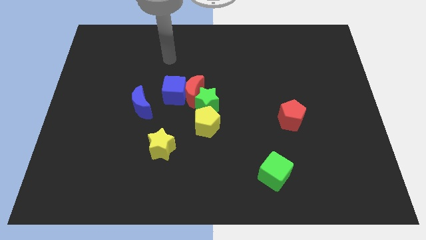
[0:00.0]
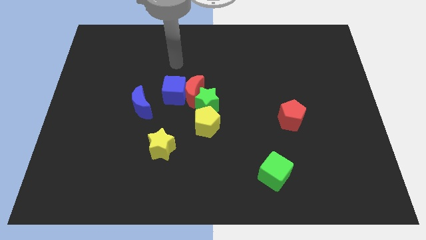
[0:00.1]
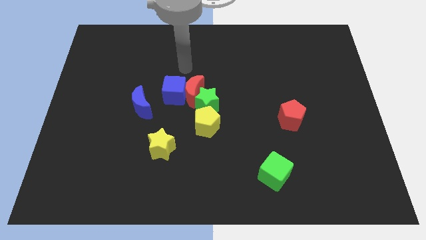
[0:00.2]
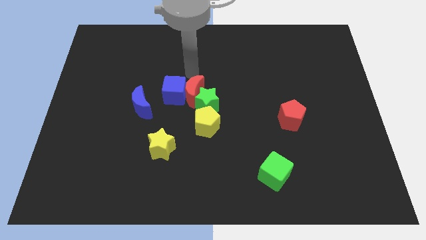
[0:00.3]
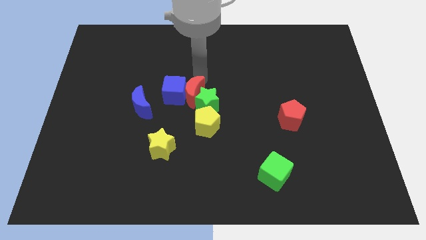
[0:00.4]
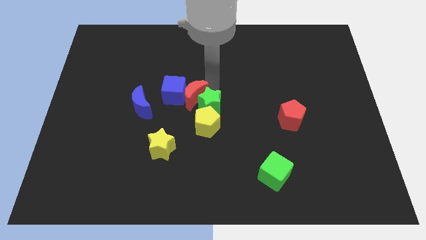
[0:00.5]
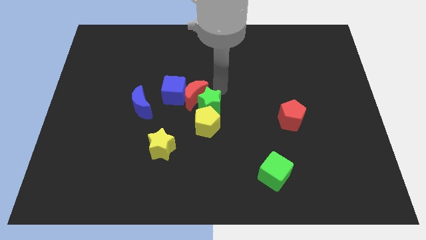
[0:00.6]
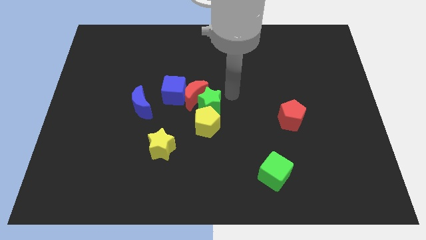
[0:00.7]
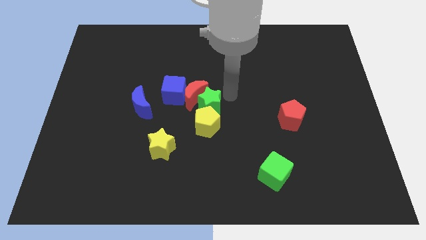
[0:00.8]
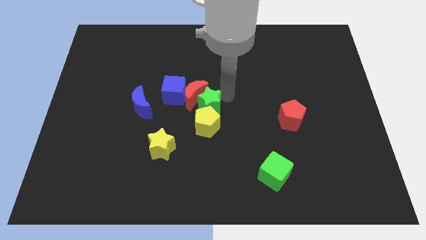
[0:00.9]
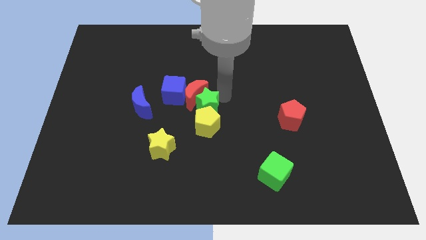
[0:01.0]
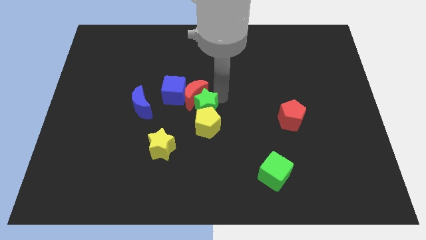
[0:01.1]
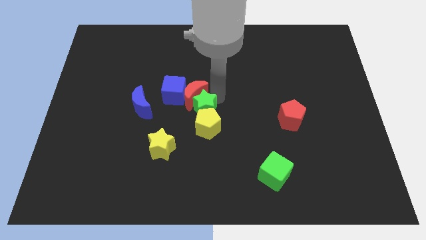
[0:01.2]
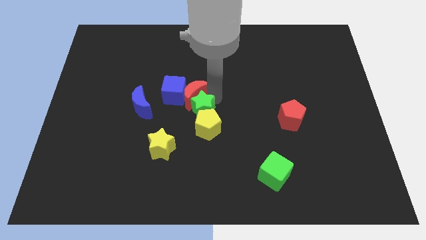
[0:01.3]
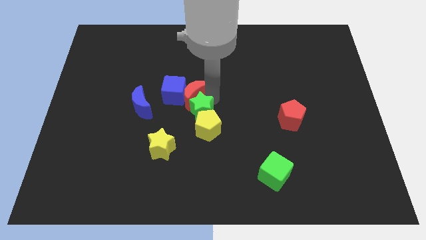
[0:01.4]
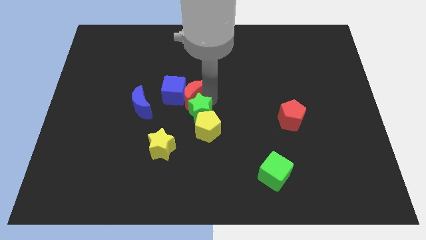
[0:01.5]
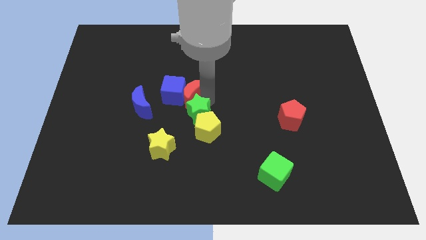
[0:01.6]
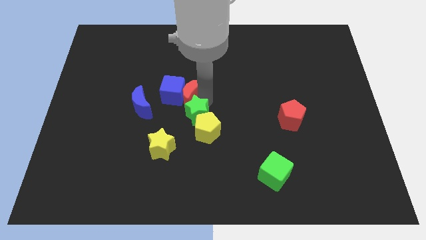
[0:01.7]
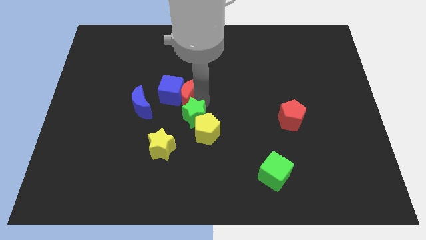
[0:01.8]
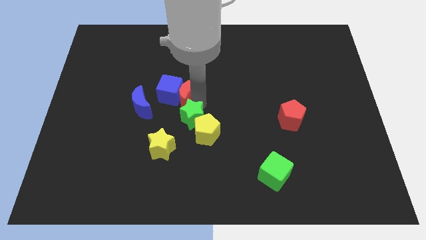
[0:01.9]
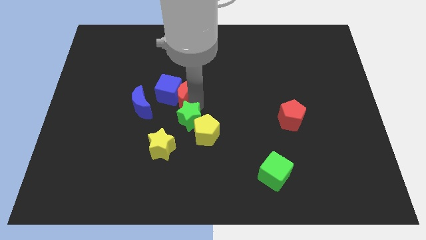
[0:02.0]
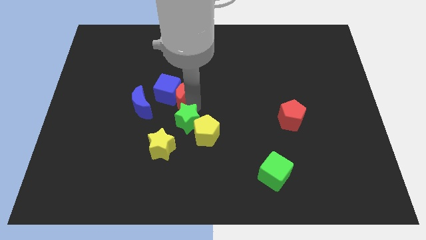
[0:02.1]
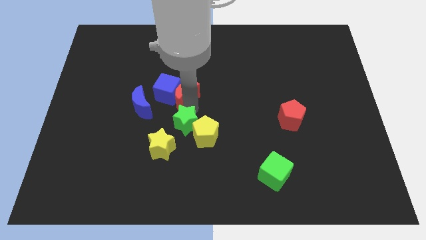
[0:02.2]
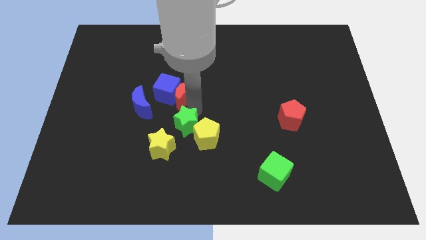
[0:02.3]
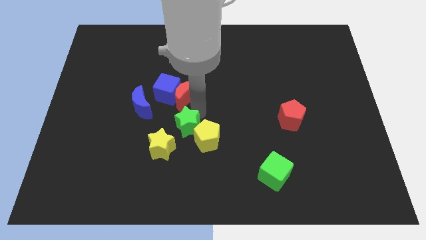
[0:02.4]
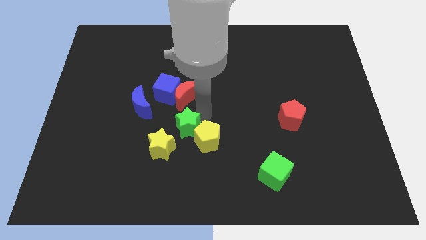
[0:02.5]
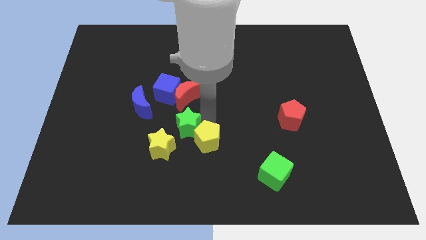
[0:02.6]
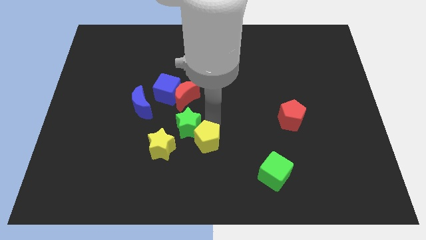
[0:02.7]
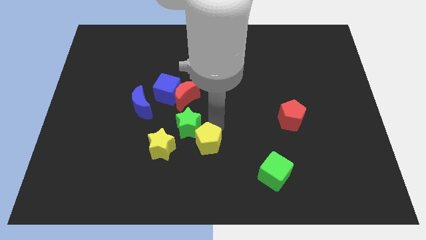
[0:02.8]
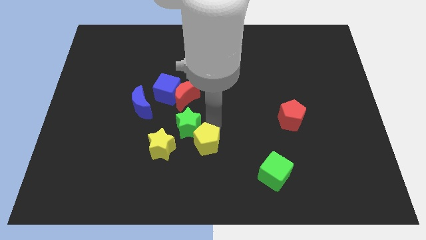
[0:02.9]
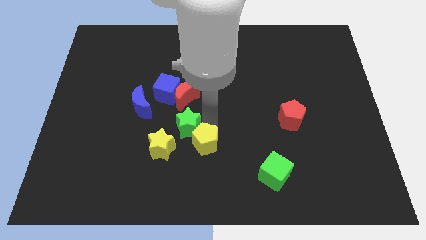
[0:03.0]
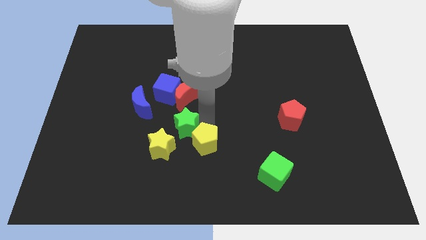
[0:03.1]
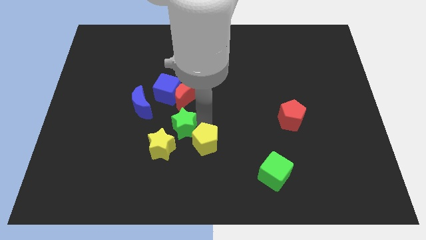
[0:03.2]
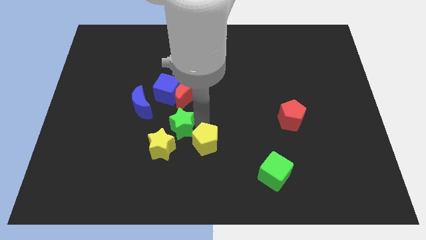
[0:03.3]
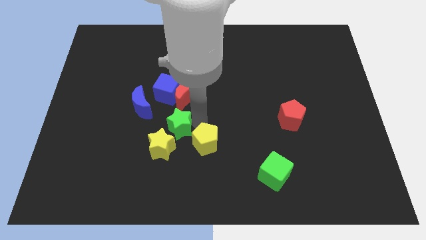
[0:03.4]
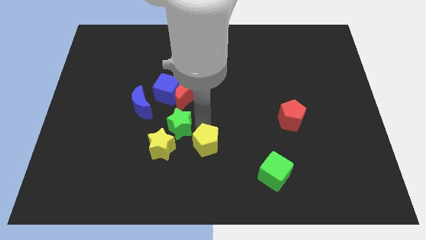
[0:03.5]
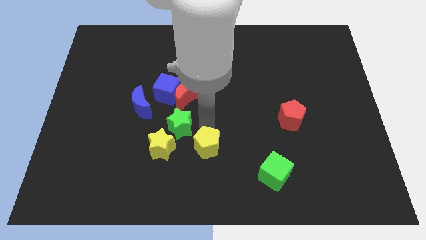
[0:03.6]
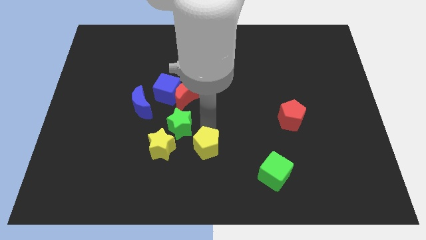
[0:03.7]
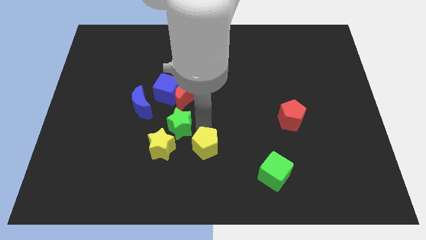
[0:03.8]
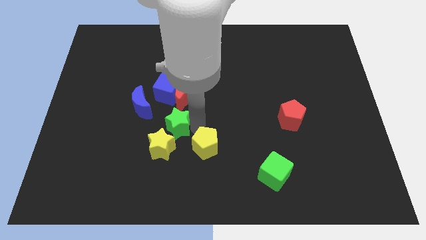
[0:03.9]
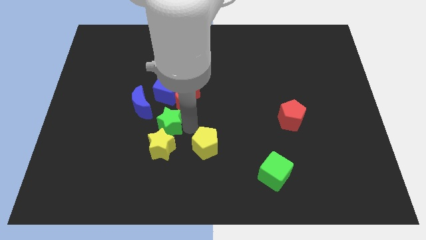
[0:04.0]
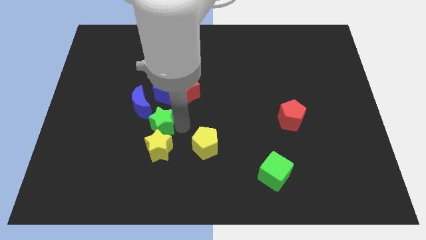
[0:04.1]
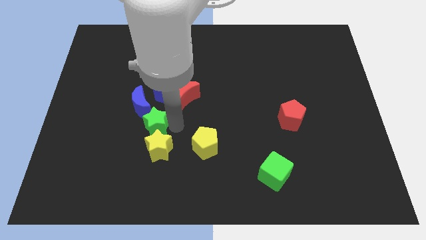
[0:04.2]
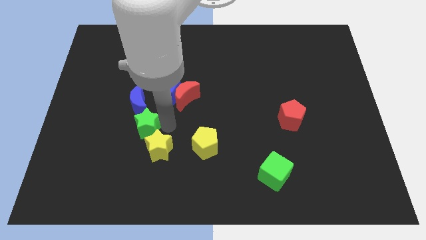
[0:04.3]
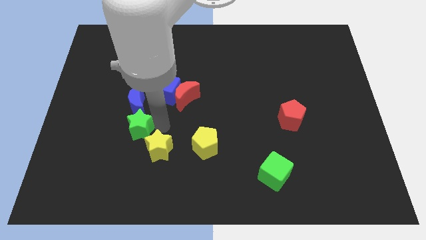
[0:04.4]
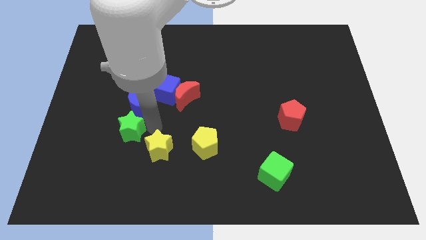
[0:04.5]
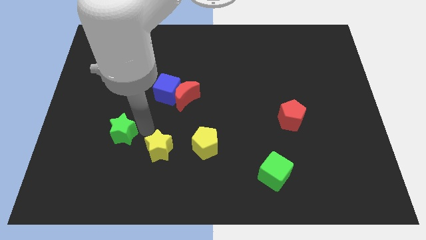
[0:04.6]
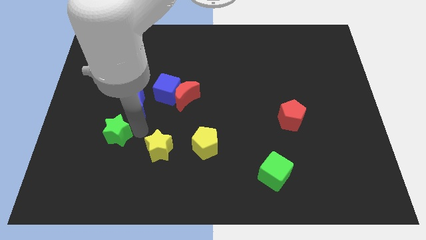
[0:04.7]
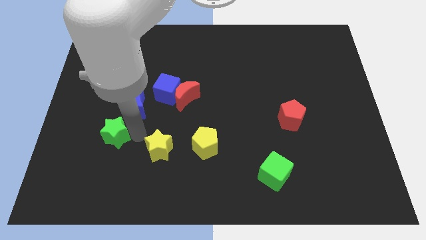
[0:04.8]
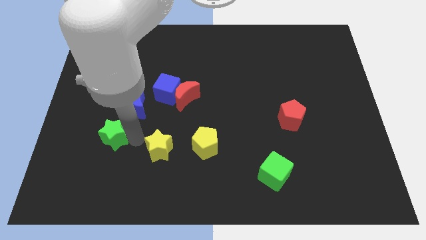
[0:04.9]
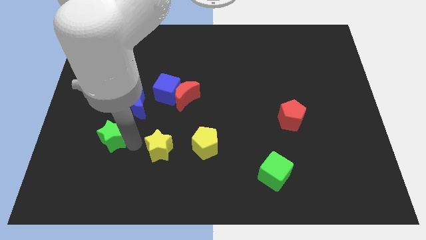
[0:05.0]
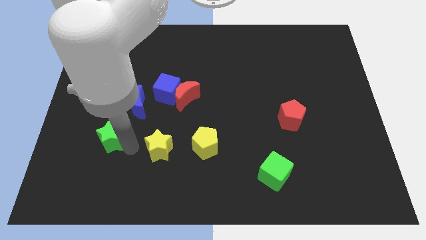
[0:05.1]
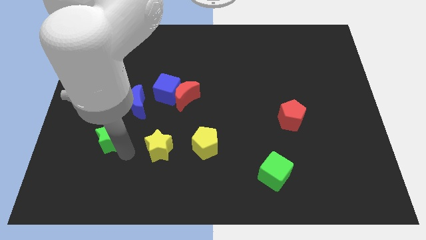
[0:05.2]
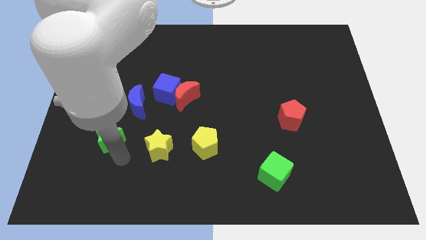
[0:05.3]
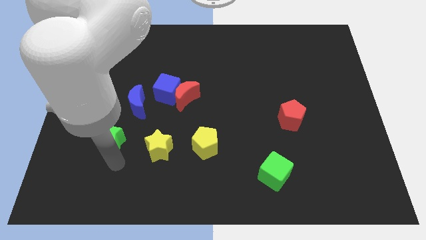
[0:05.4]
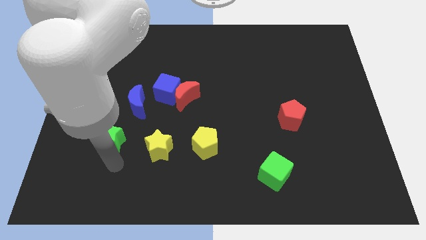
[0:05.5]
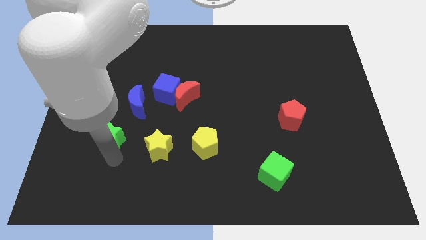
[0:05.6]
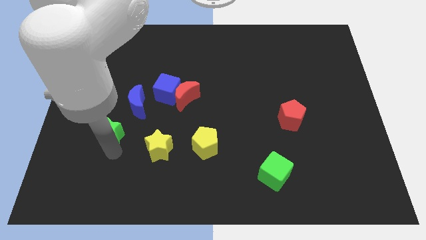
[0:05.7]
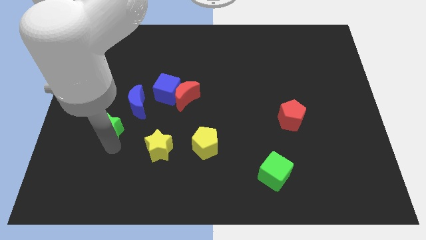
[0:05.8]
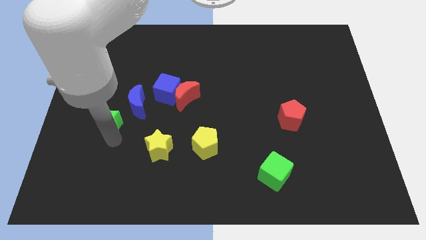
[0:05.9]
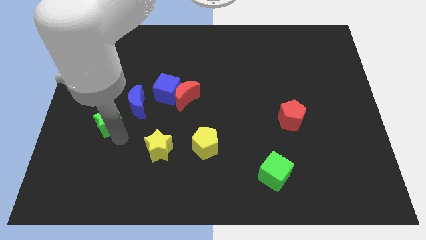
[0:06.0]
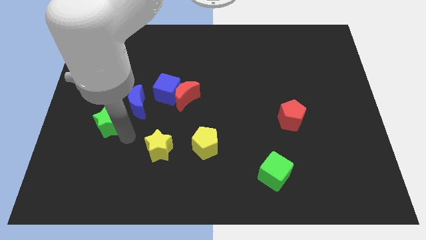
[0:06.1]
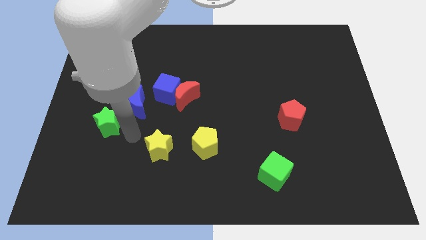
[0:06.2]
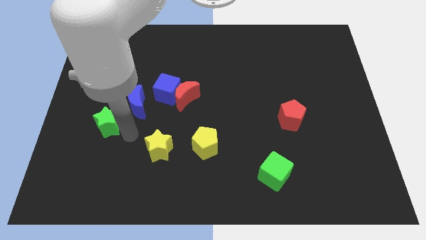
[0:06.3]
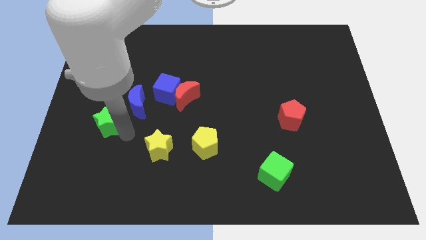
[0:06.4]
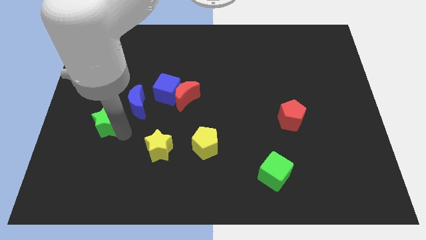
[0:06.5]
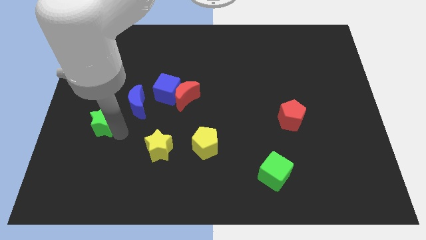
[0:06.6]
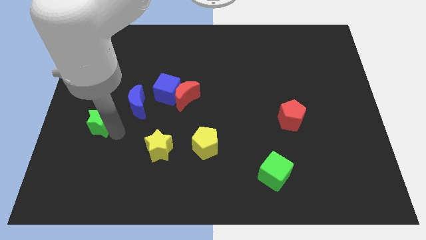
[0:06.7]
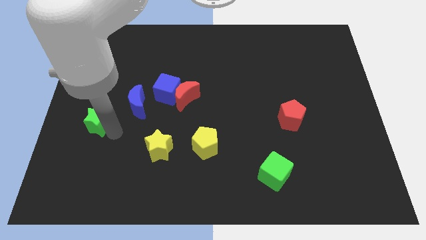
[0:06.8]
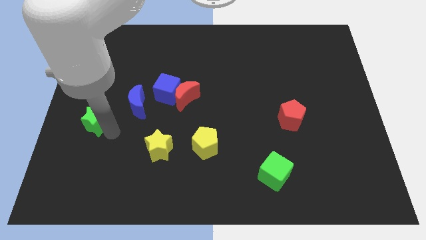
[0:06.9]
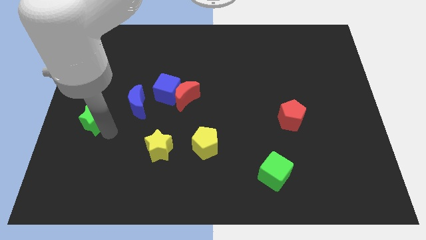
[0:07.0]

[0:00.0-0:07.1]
push the green star to the left side

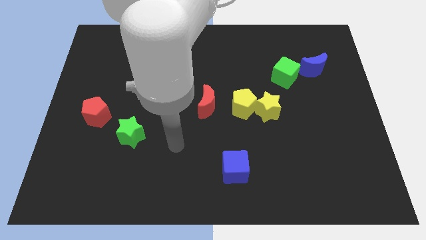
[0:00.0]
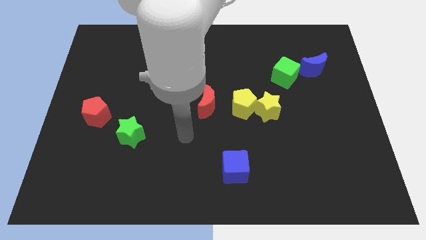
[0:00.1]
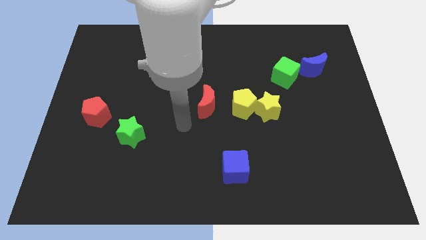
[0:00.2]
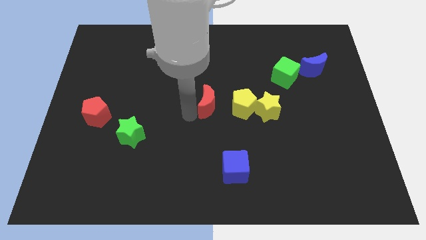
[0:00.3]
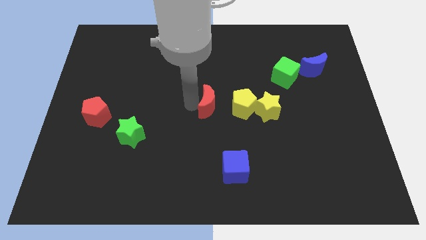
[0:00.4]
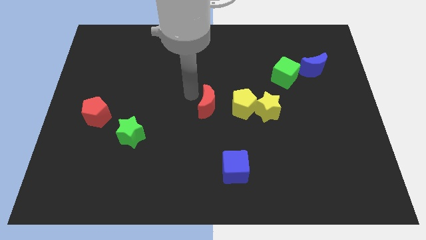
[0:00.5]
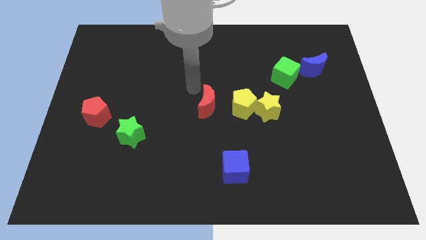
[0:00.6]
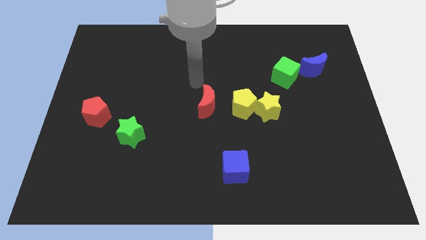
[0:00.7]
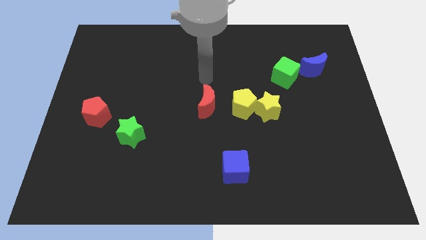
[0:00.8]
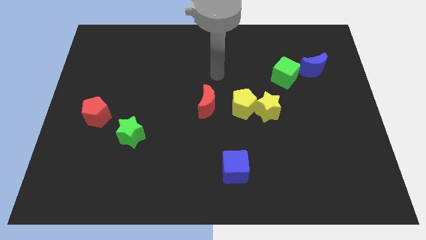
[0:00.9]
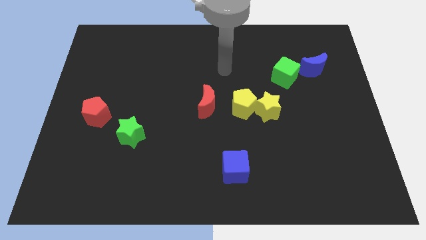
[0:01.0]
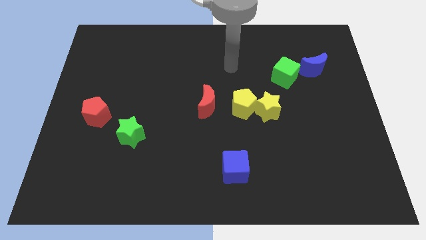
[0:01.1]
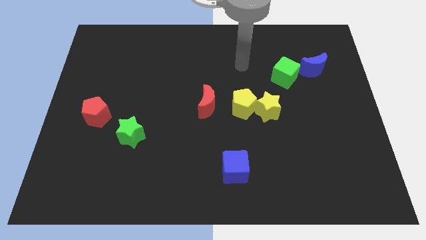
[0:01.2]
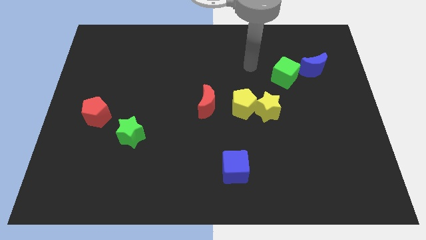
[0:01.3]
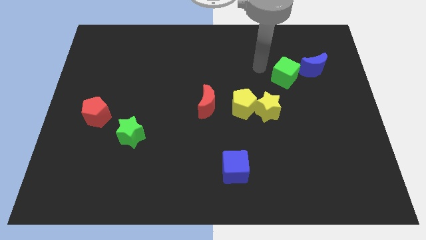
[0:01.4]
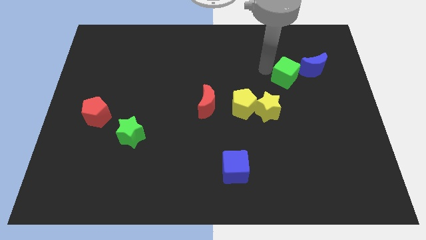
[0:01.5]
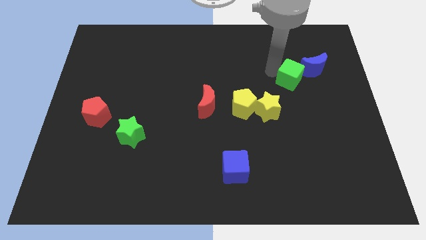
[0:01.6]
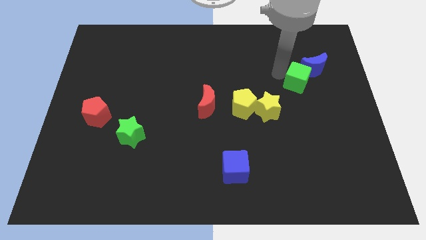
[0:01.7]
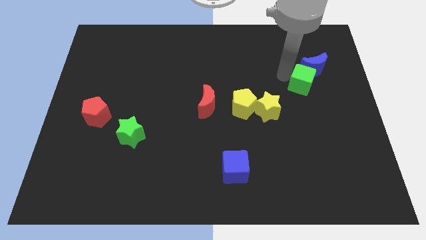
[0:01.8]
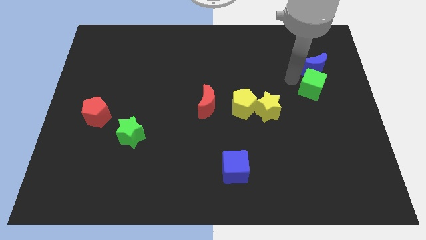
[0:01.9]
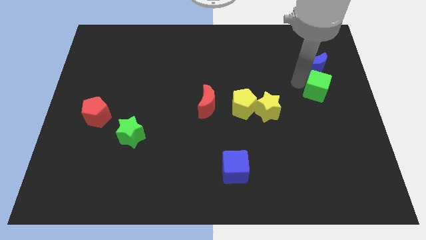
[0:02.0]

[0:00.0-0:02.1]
move the green cube to the center right
